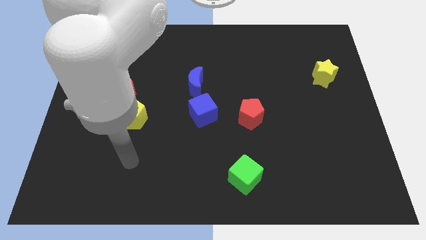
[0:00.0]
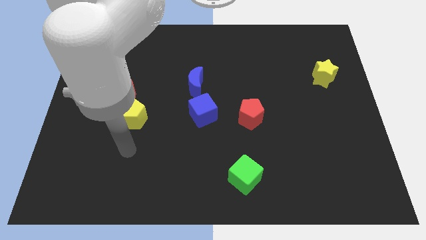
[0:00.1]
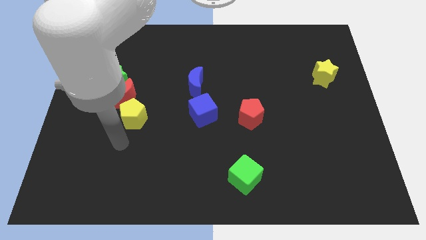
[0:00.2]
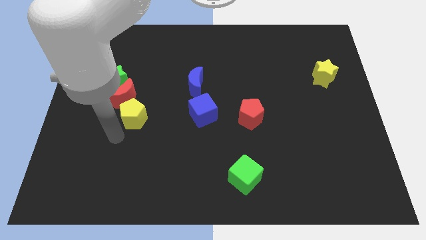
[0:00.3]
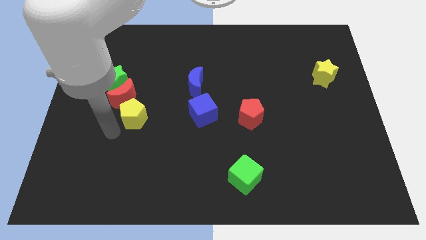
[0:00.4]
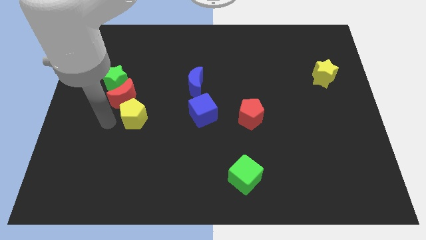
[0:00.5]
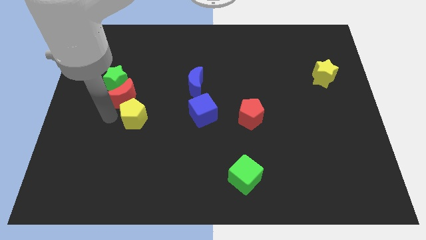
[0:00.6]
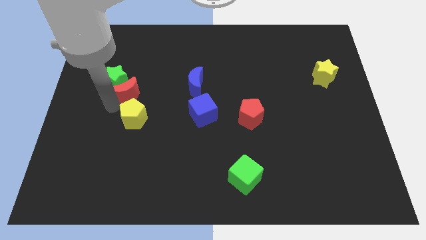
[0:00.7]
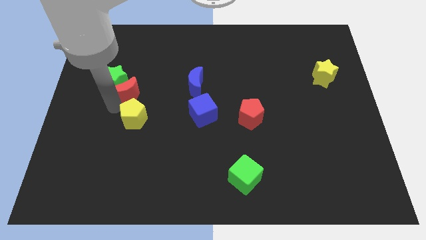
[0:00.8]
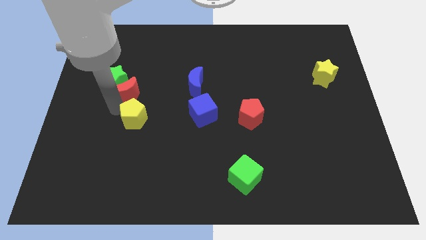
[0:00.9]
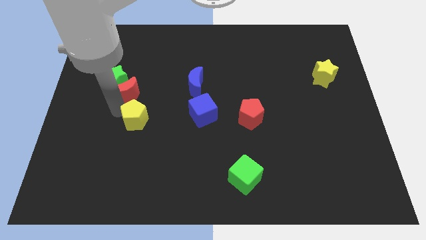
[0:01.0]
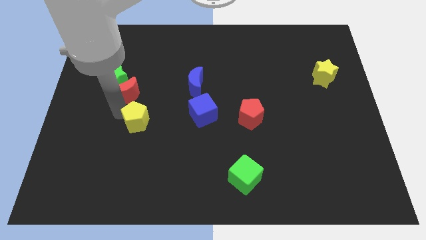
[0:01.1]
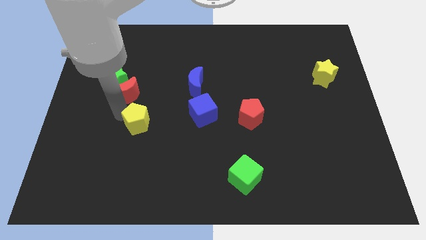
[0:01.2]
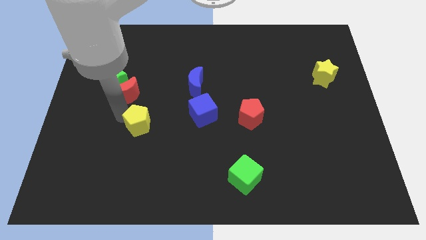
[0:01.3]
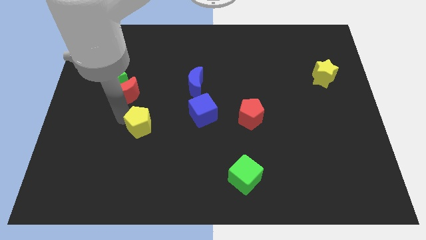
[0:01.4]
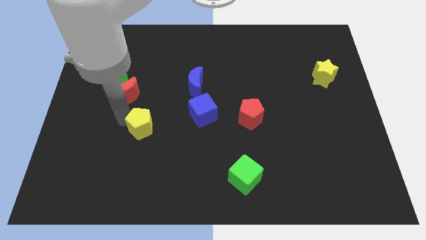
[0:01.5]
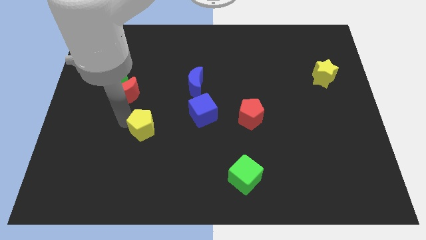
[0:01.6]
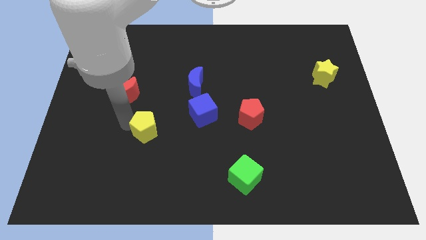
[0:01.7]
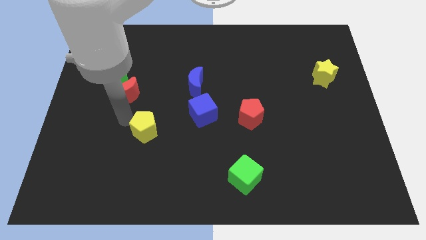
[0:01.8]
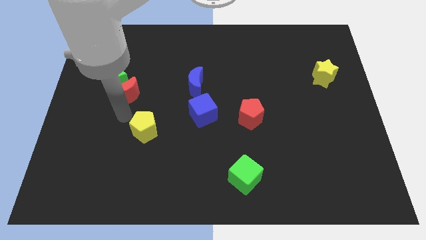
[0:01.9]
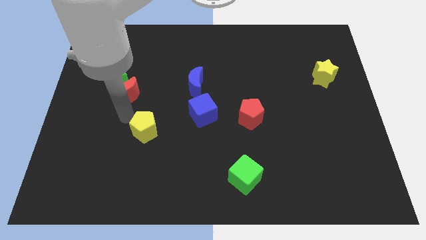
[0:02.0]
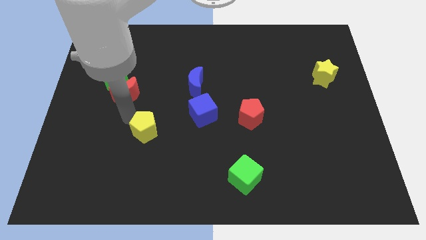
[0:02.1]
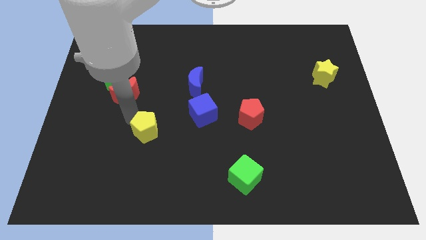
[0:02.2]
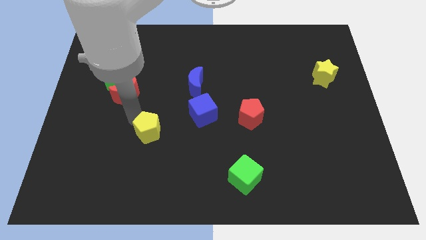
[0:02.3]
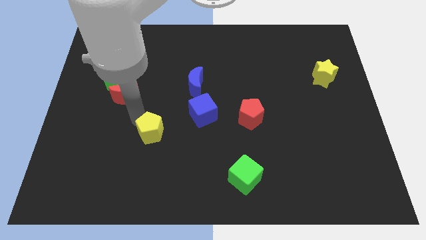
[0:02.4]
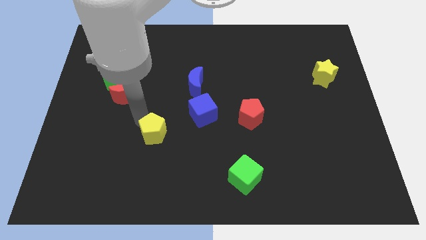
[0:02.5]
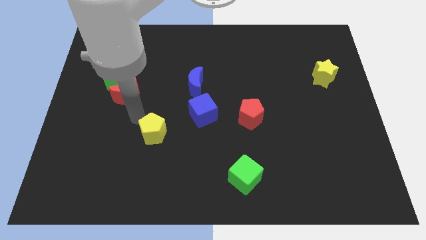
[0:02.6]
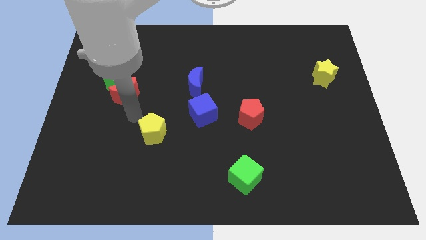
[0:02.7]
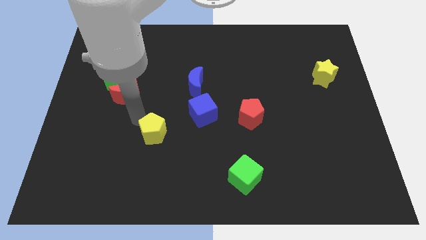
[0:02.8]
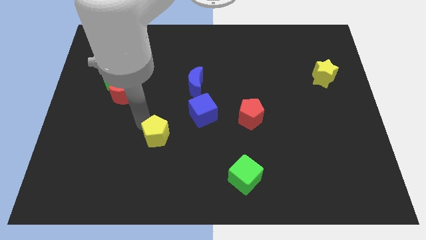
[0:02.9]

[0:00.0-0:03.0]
push the yellow pentagon down and then right a bit

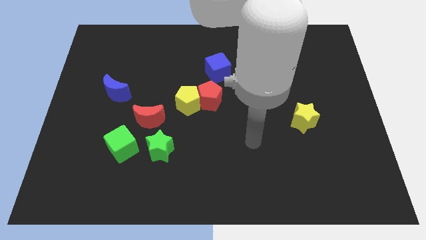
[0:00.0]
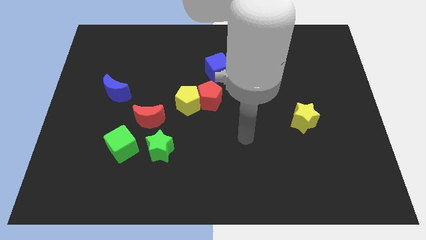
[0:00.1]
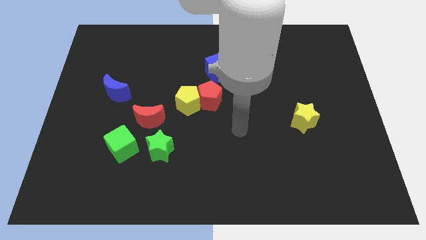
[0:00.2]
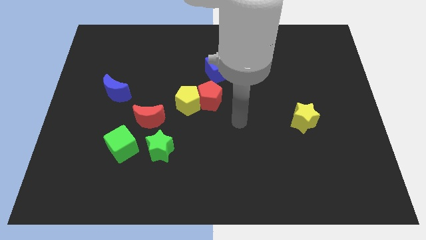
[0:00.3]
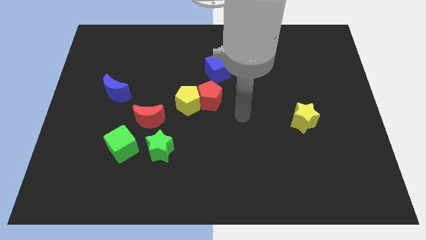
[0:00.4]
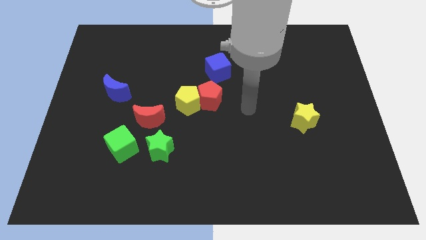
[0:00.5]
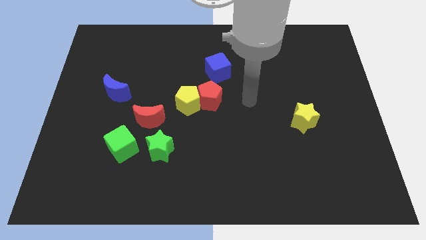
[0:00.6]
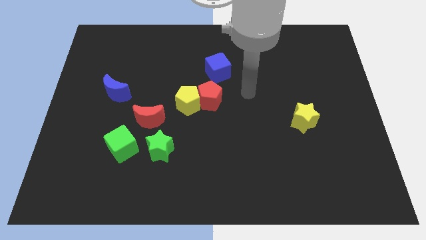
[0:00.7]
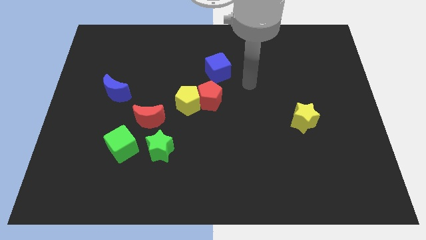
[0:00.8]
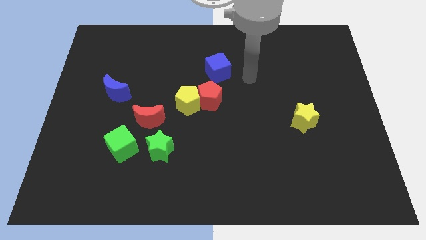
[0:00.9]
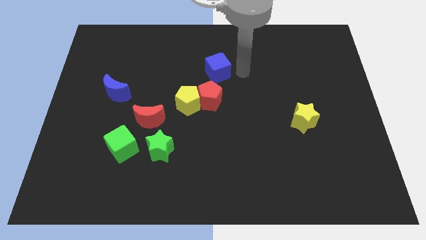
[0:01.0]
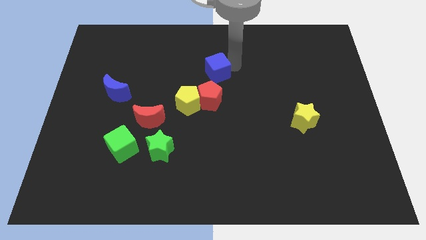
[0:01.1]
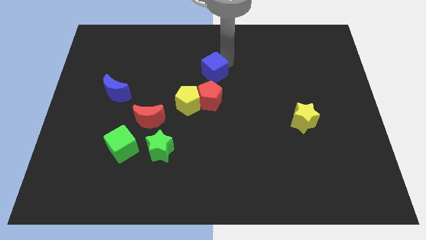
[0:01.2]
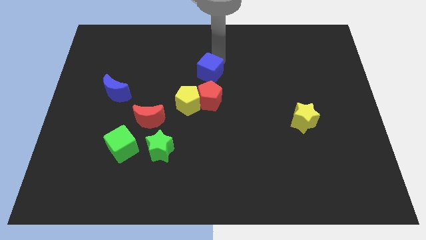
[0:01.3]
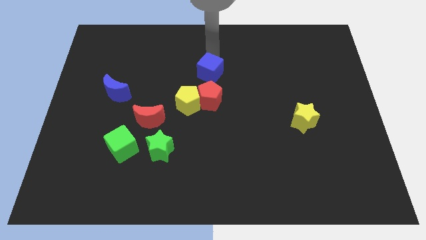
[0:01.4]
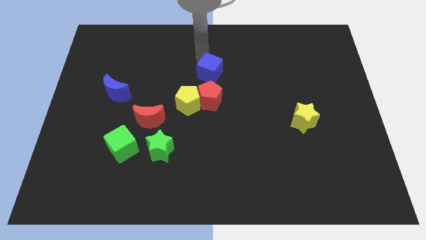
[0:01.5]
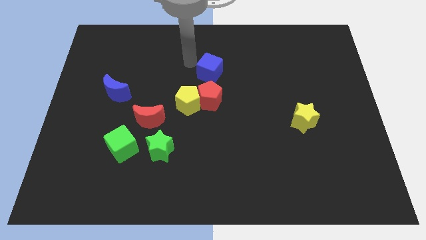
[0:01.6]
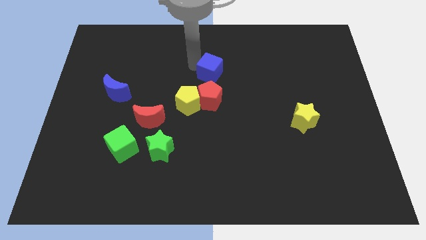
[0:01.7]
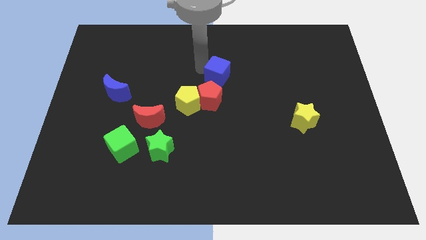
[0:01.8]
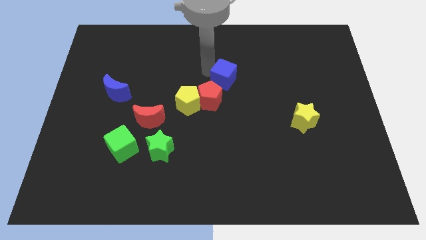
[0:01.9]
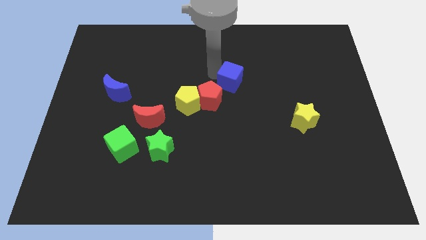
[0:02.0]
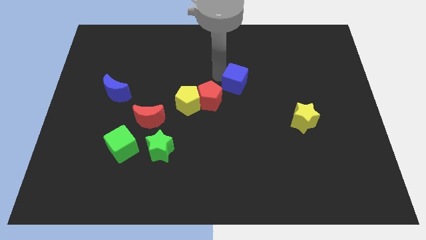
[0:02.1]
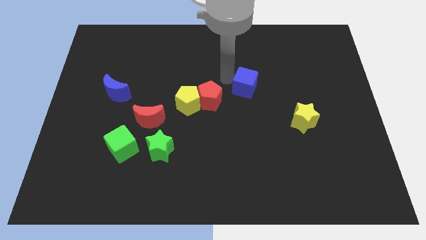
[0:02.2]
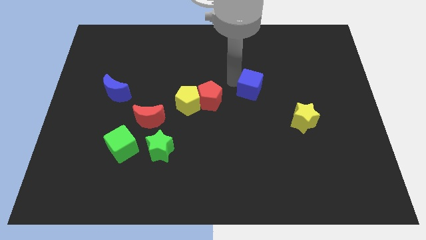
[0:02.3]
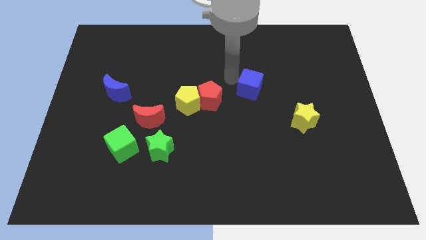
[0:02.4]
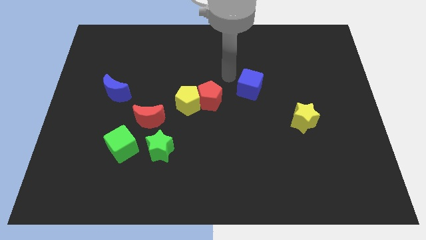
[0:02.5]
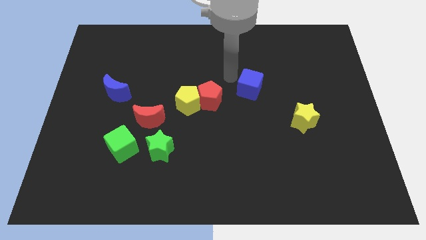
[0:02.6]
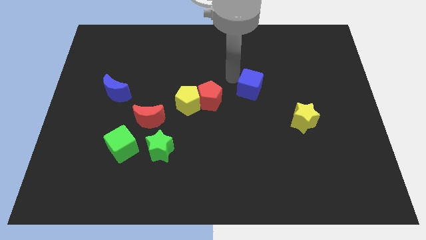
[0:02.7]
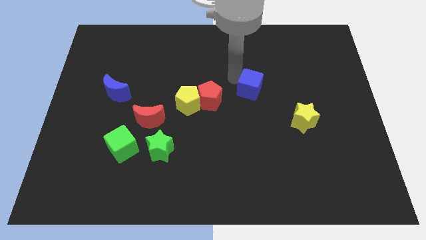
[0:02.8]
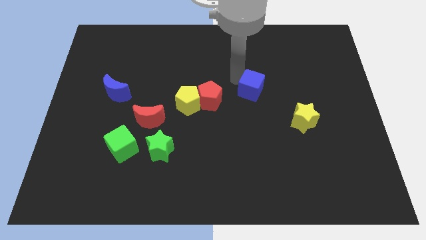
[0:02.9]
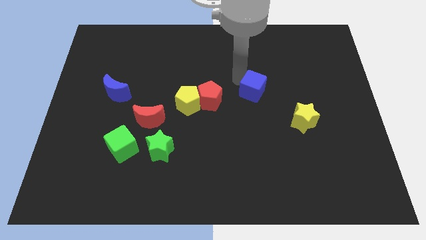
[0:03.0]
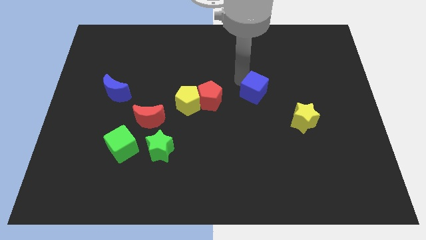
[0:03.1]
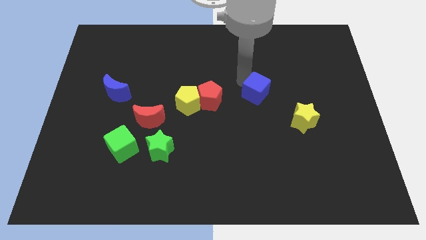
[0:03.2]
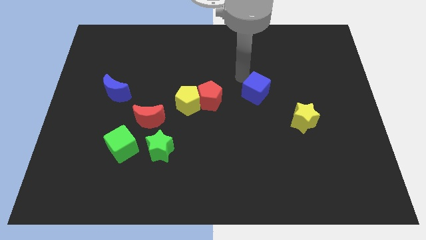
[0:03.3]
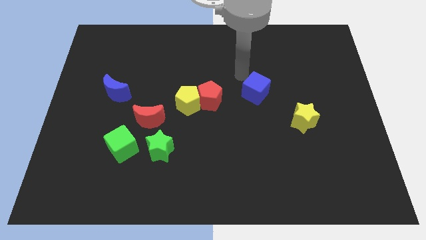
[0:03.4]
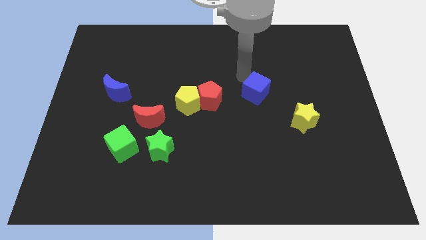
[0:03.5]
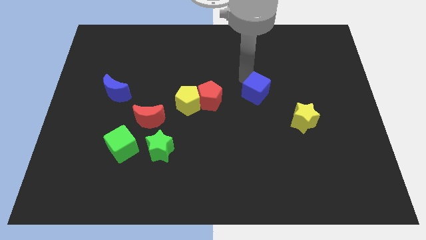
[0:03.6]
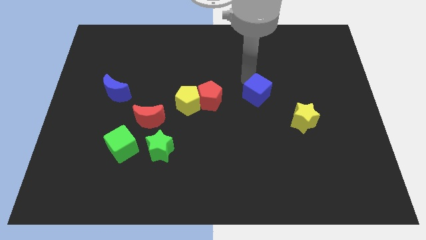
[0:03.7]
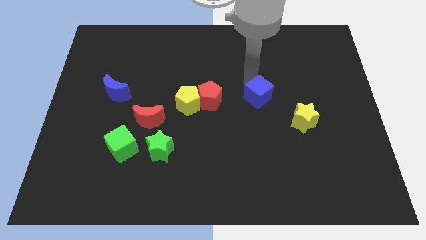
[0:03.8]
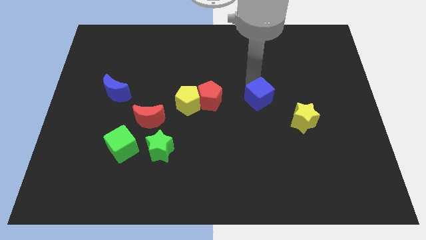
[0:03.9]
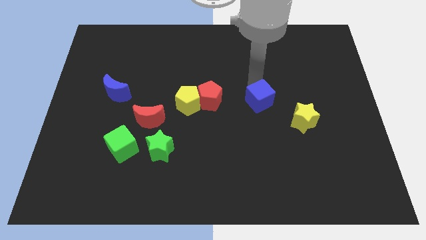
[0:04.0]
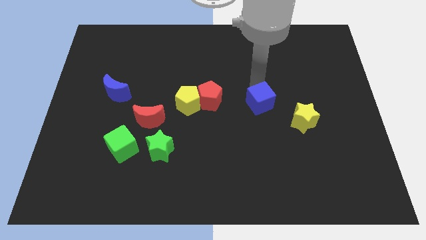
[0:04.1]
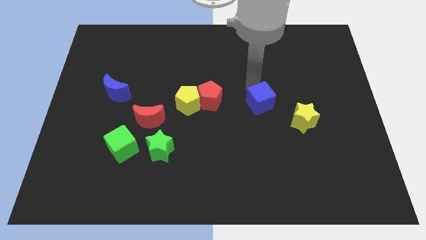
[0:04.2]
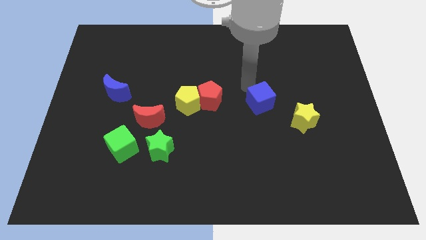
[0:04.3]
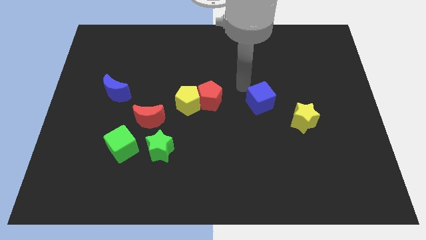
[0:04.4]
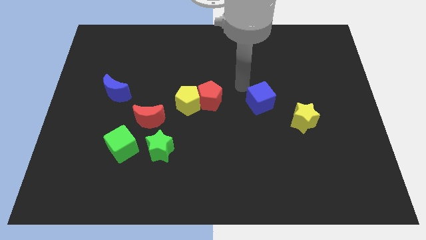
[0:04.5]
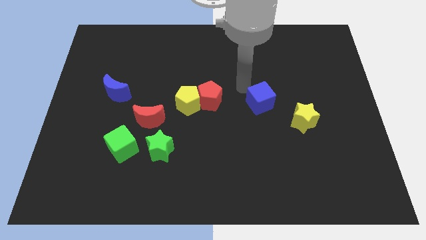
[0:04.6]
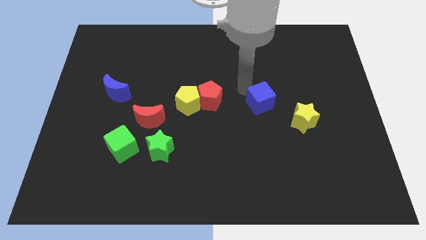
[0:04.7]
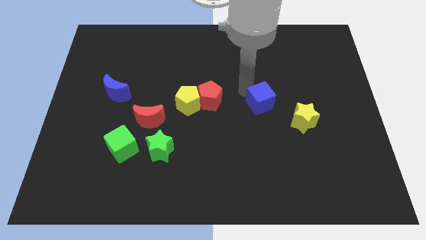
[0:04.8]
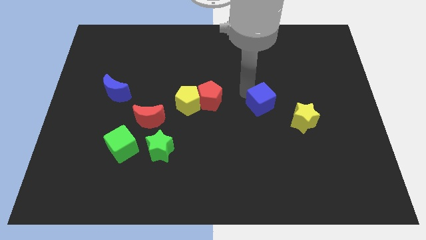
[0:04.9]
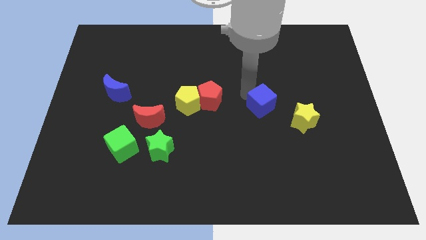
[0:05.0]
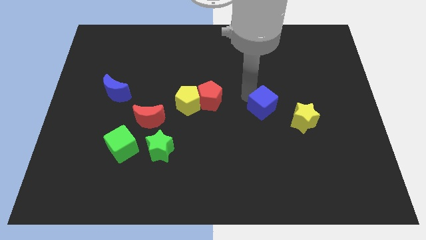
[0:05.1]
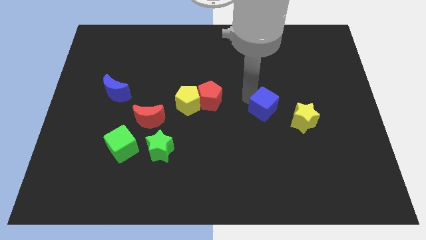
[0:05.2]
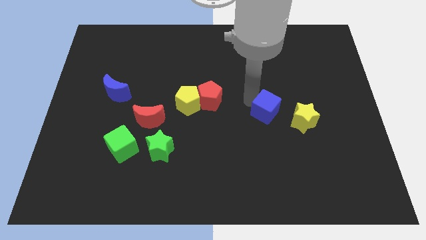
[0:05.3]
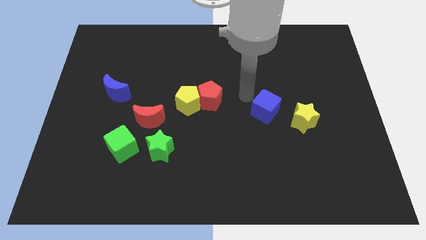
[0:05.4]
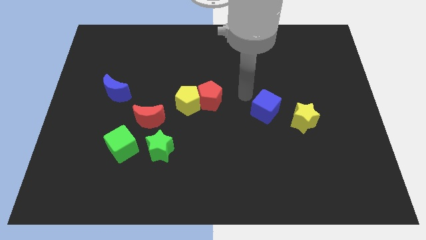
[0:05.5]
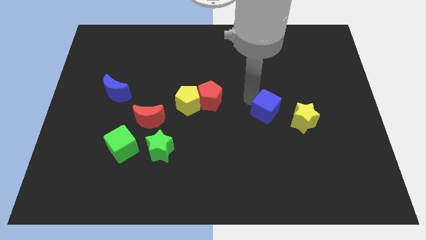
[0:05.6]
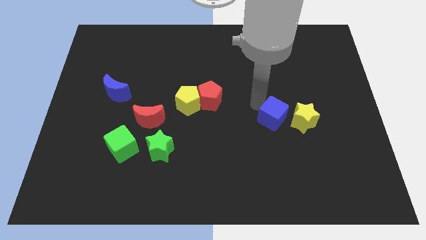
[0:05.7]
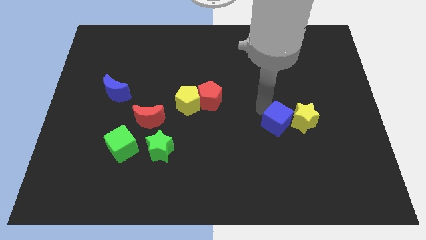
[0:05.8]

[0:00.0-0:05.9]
slide the blue cube down and to the right diagonally
